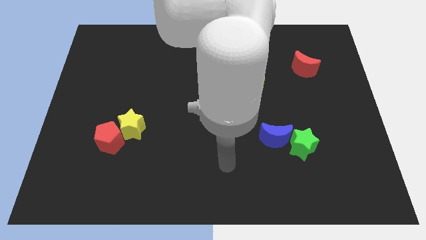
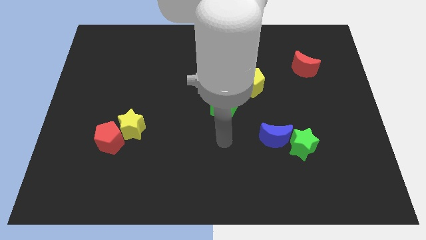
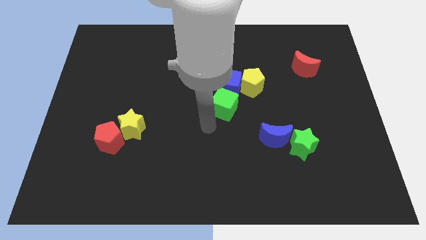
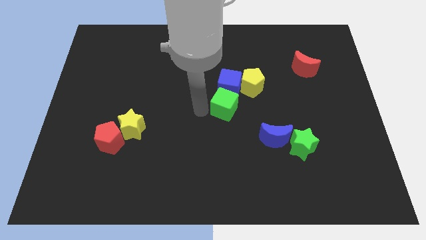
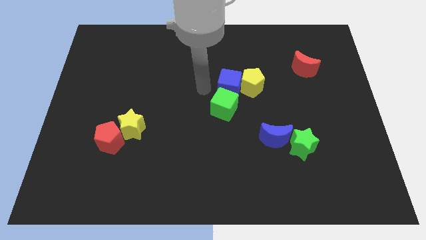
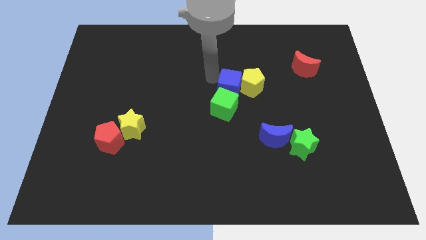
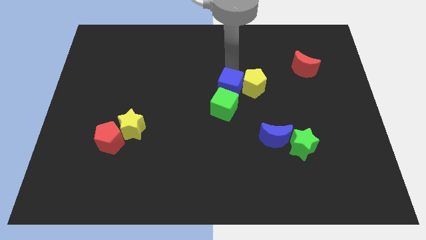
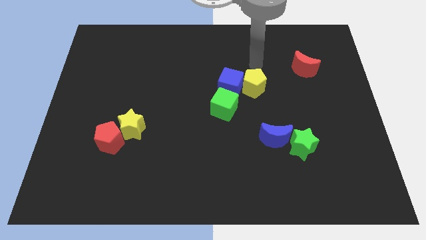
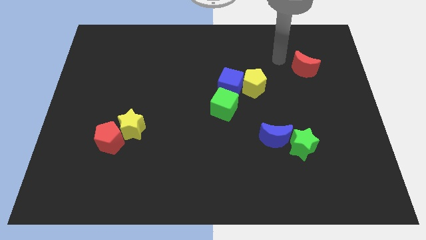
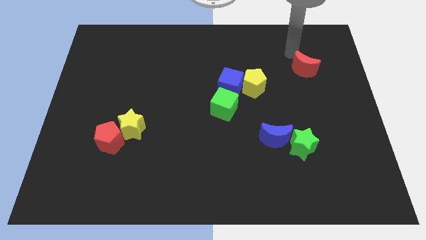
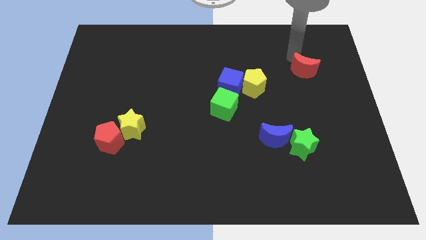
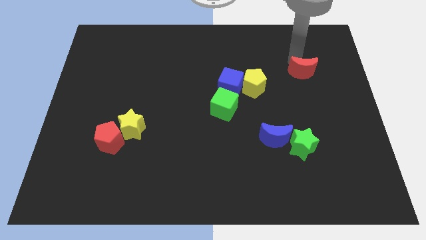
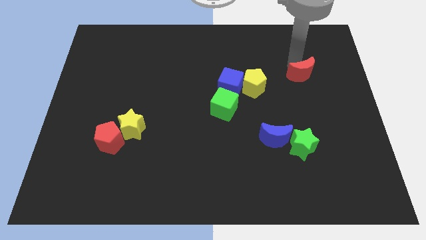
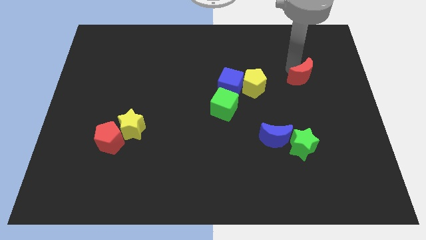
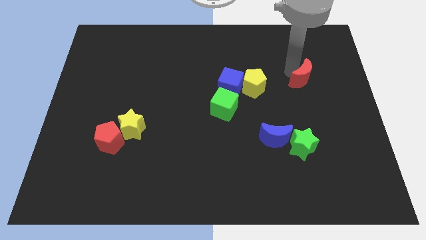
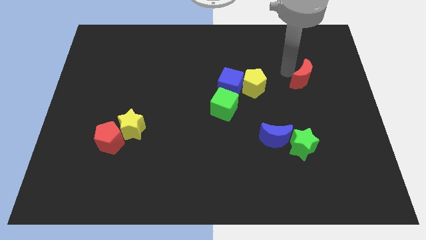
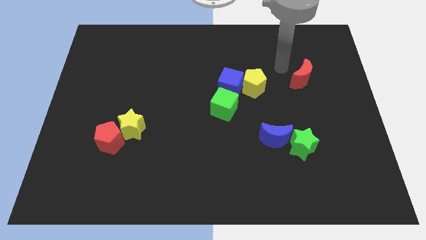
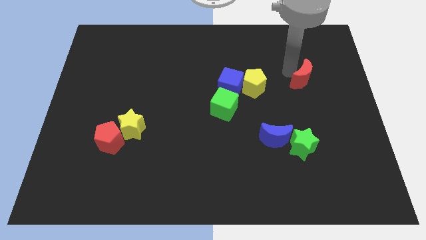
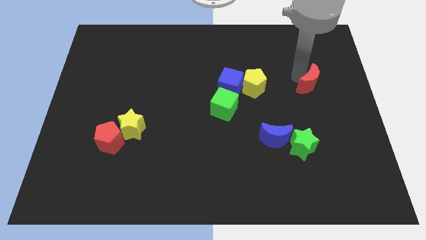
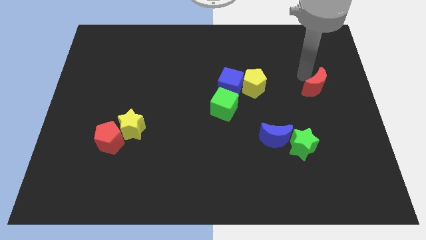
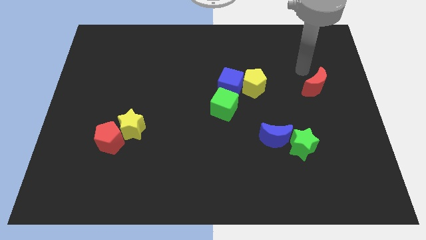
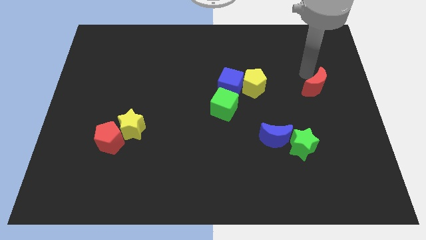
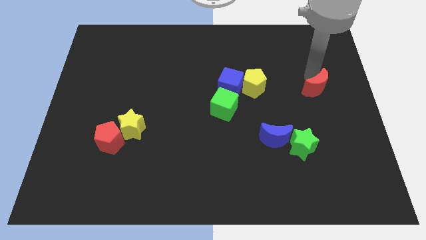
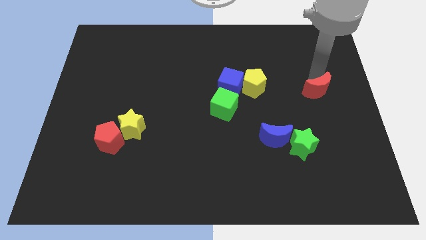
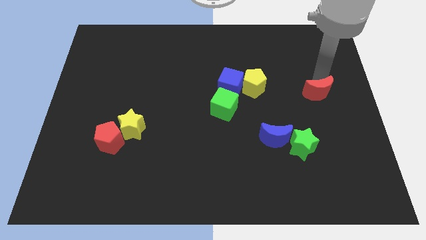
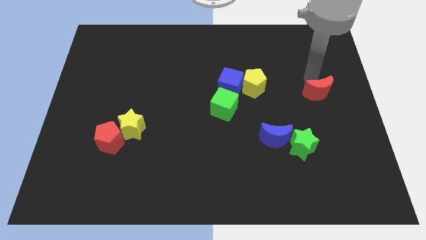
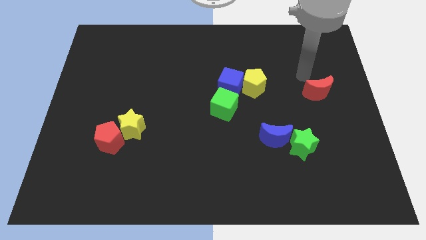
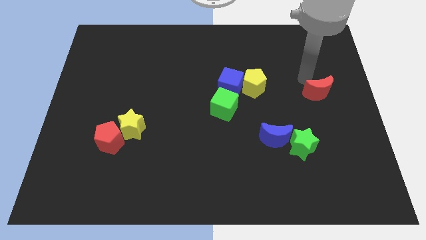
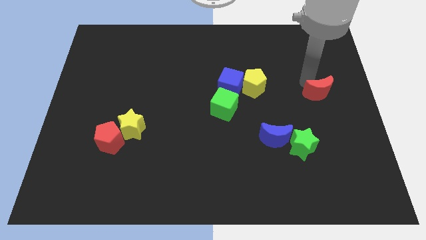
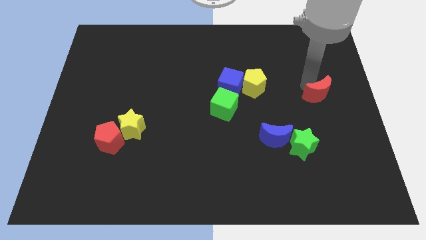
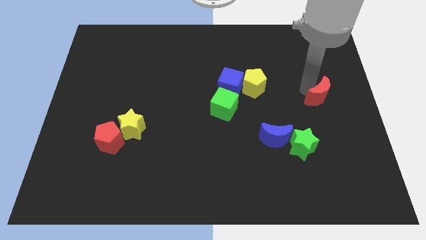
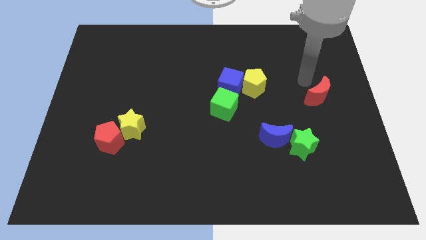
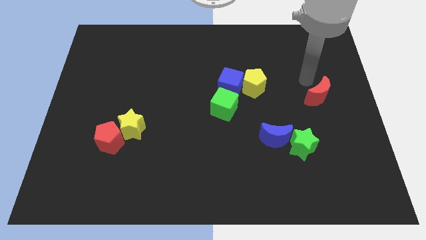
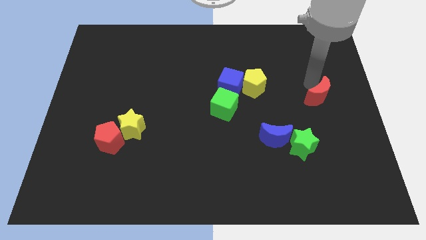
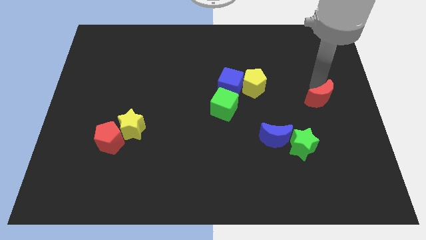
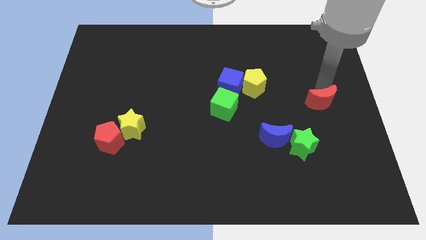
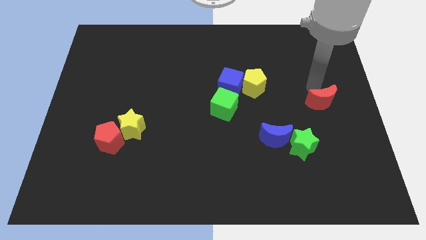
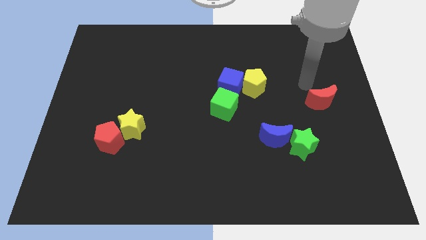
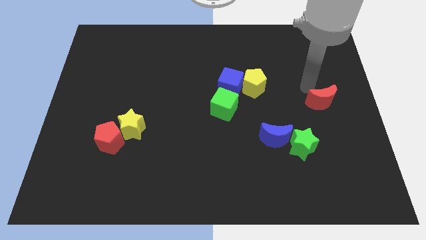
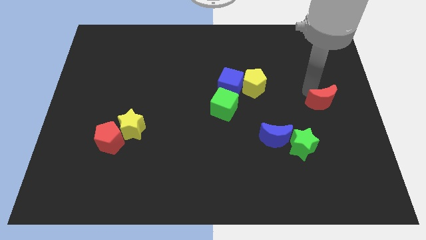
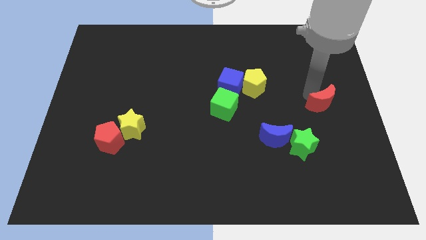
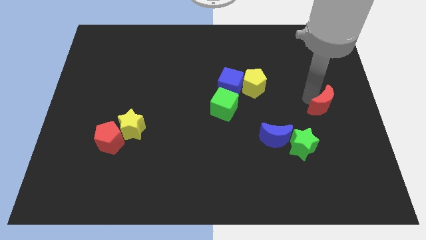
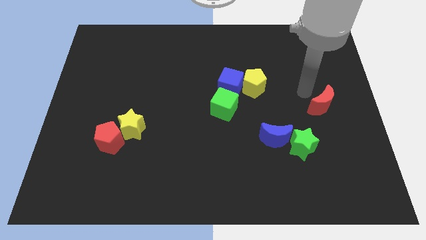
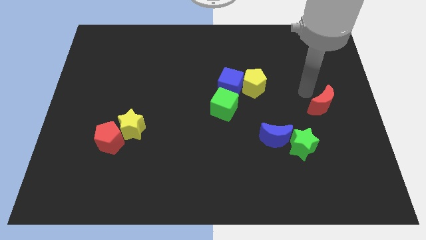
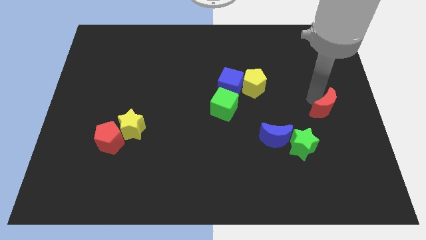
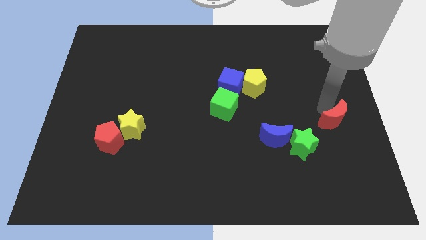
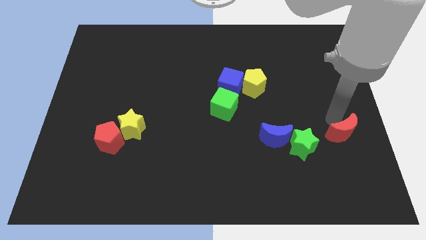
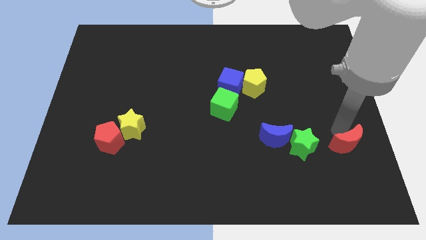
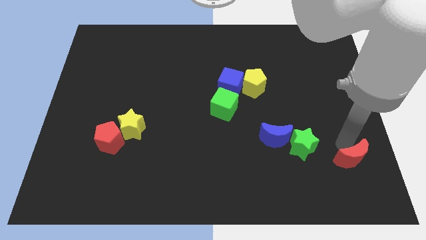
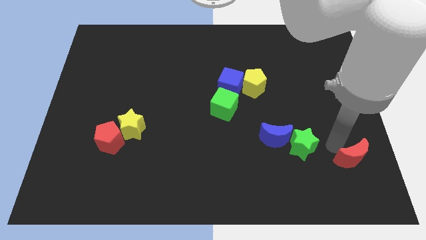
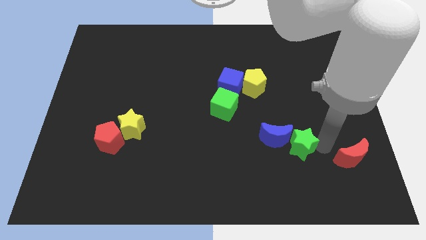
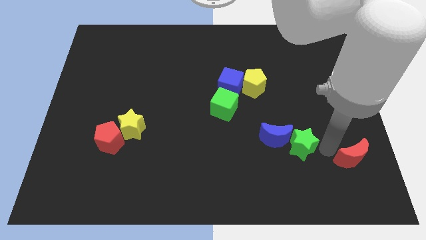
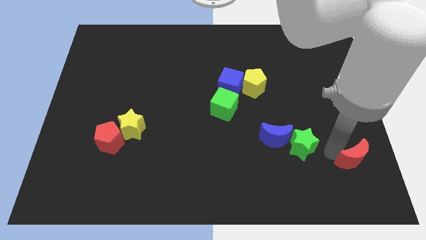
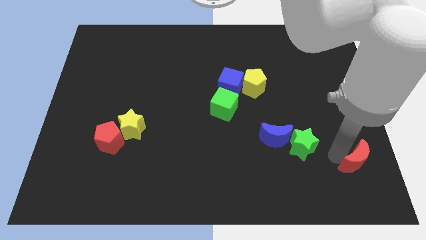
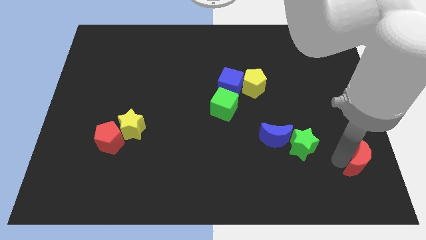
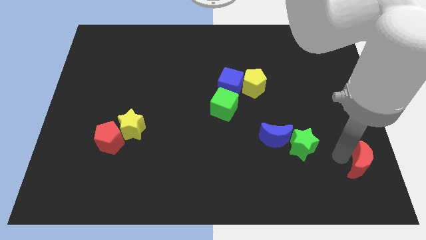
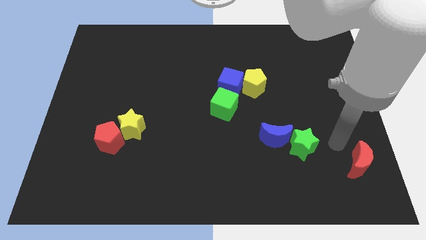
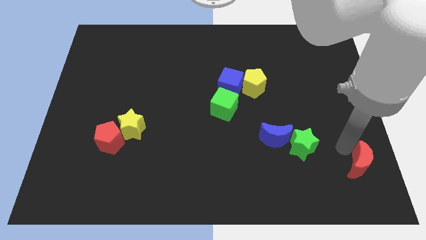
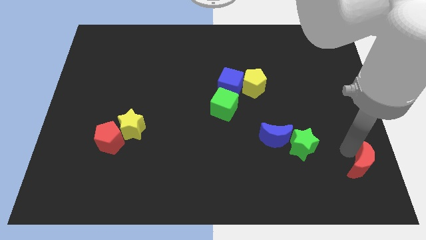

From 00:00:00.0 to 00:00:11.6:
push the red moon to the bottom right
